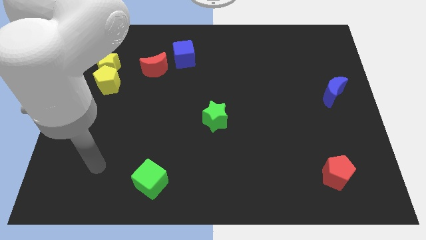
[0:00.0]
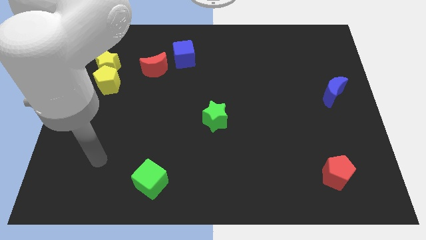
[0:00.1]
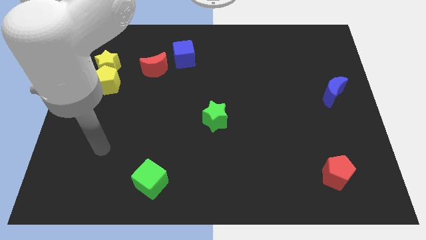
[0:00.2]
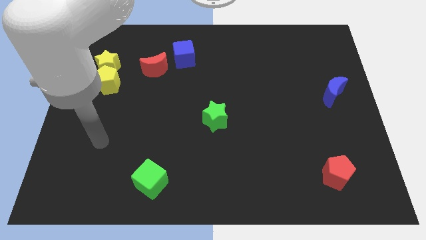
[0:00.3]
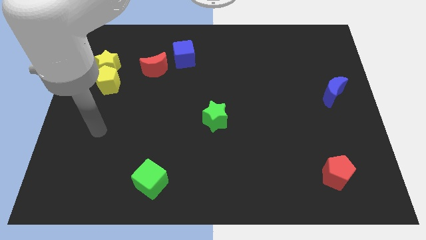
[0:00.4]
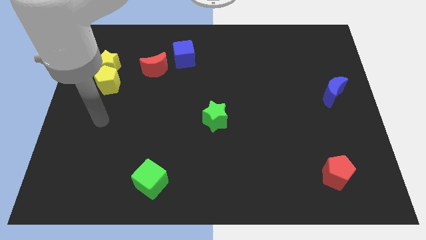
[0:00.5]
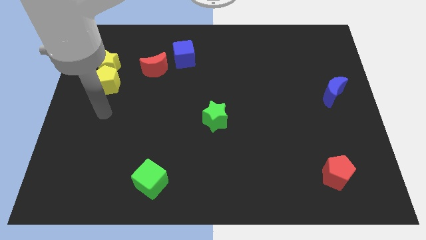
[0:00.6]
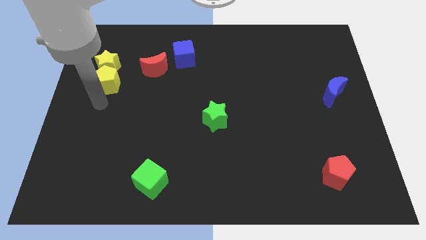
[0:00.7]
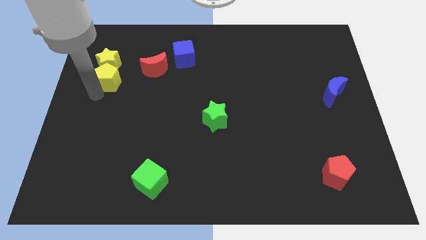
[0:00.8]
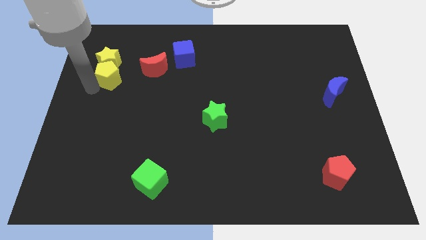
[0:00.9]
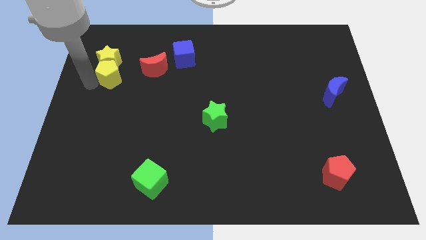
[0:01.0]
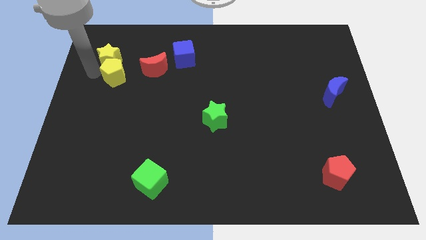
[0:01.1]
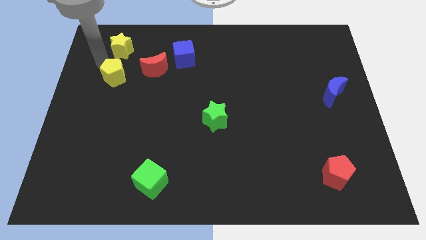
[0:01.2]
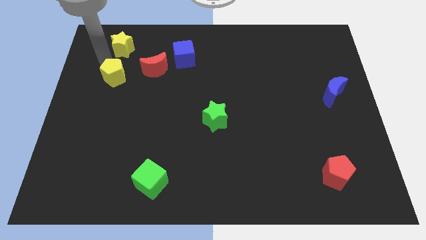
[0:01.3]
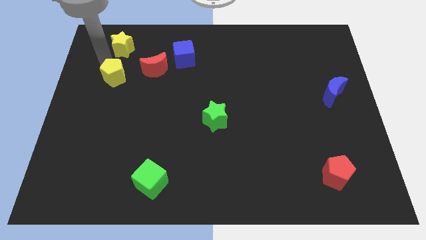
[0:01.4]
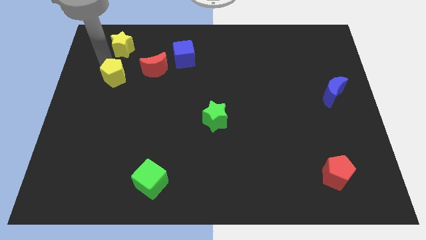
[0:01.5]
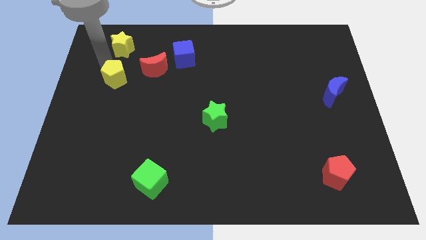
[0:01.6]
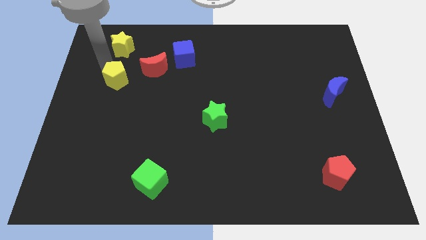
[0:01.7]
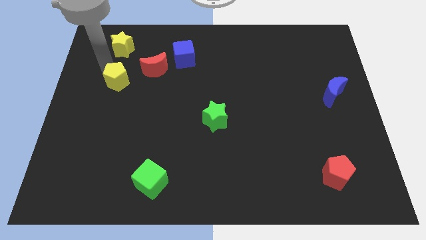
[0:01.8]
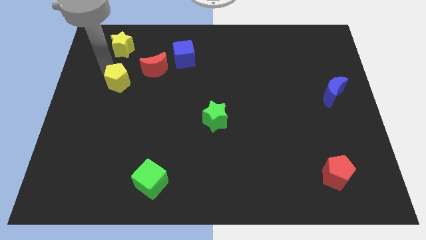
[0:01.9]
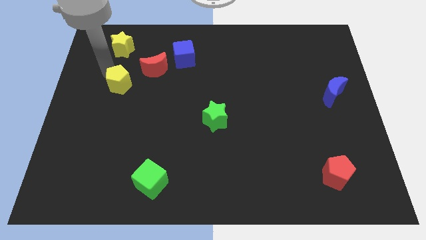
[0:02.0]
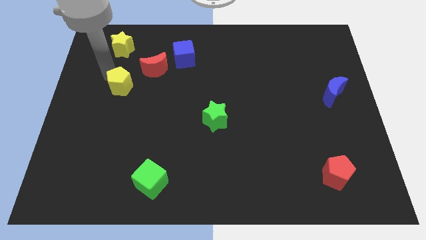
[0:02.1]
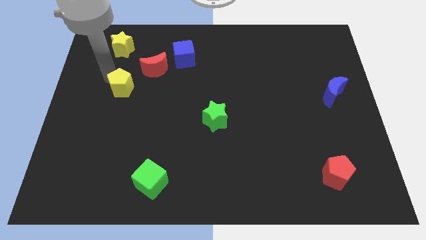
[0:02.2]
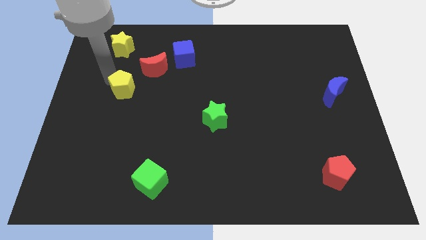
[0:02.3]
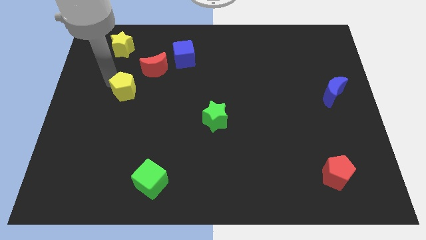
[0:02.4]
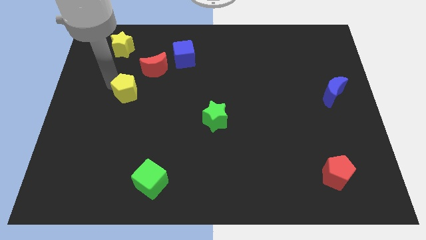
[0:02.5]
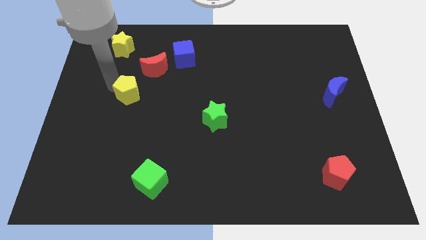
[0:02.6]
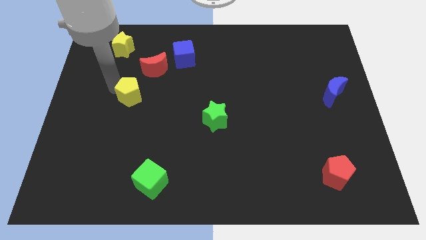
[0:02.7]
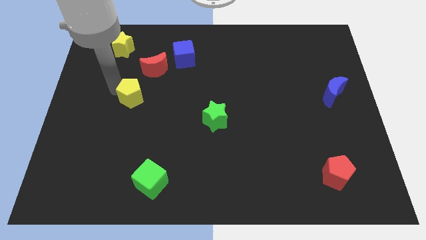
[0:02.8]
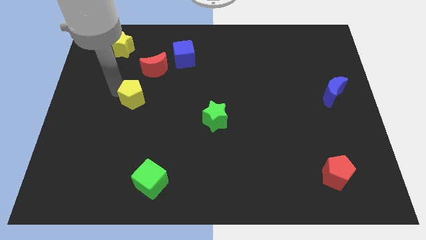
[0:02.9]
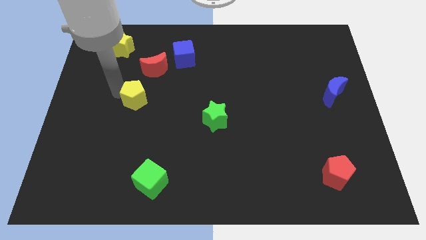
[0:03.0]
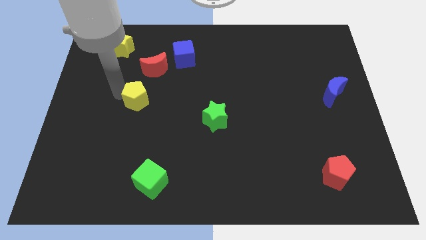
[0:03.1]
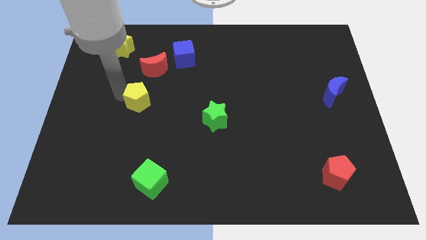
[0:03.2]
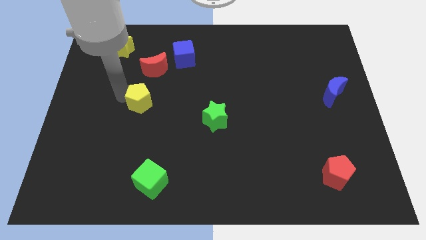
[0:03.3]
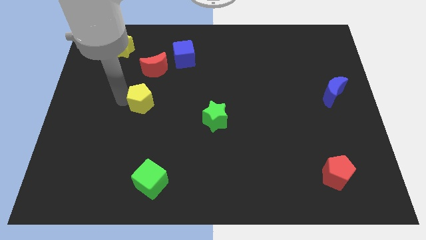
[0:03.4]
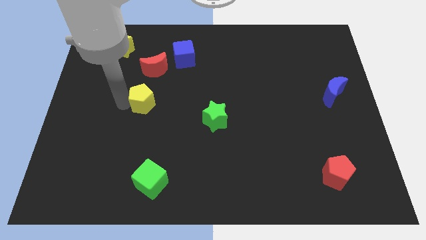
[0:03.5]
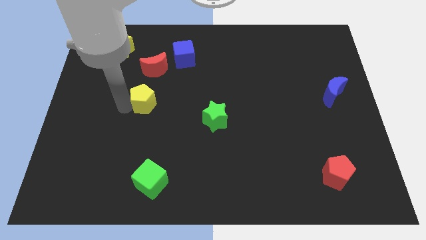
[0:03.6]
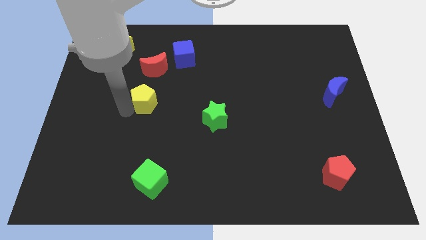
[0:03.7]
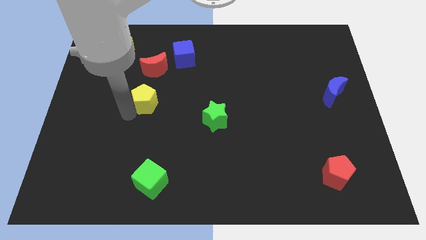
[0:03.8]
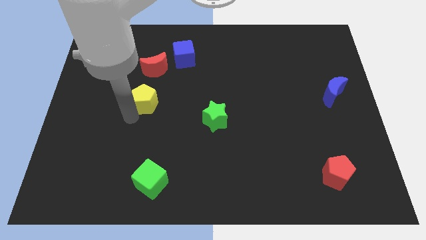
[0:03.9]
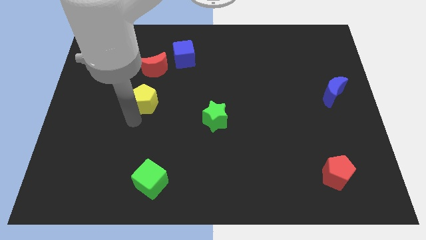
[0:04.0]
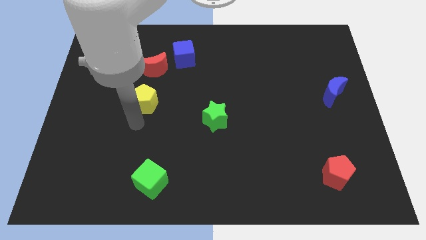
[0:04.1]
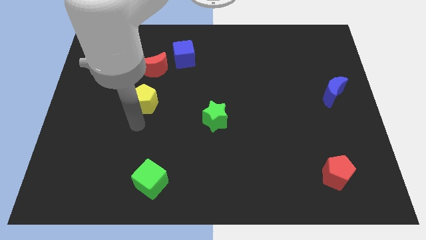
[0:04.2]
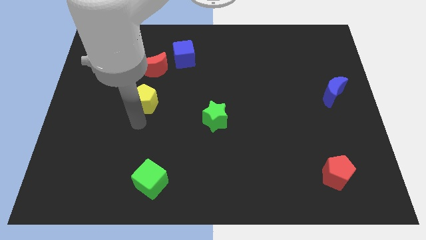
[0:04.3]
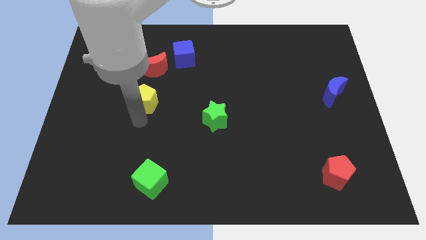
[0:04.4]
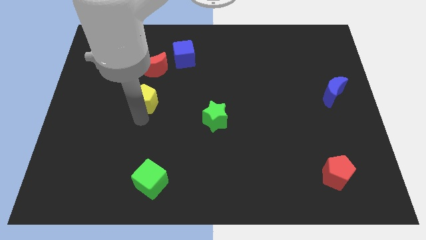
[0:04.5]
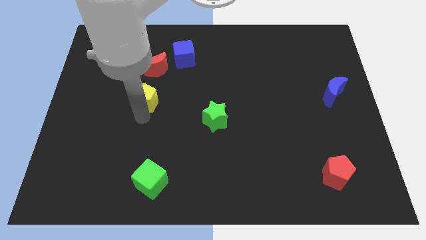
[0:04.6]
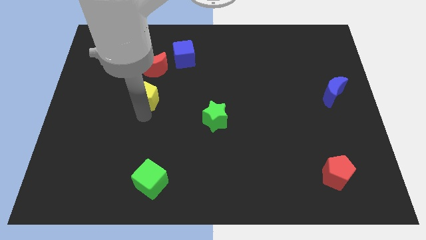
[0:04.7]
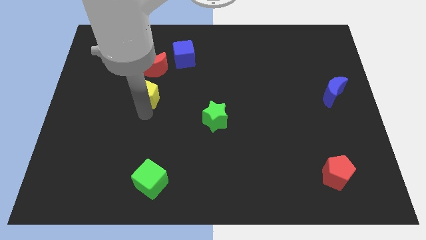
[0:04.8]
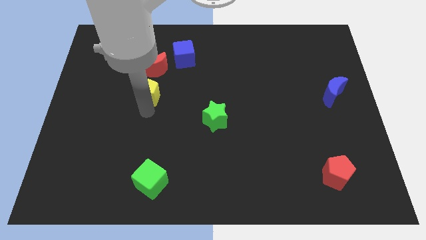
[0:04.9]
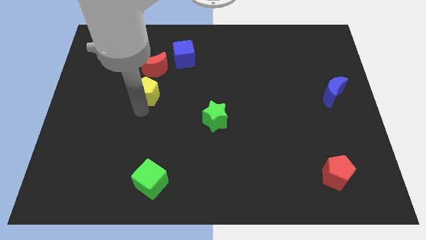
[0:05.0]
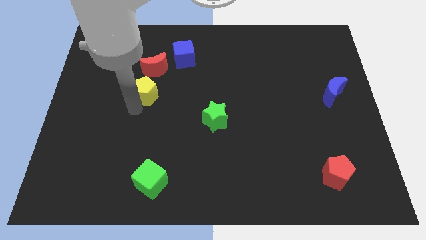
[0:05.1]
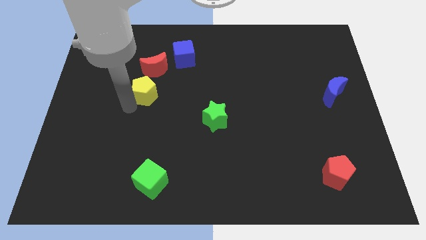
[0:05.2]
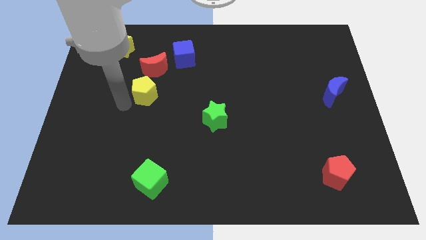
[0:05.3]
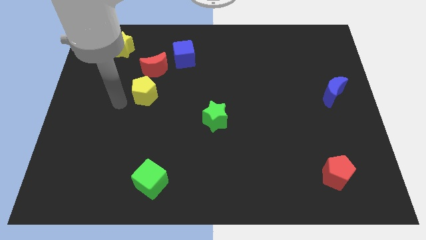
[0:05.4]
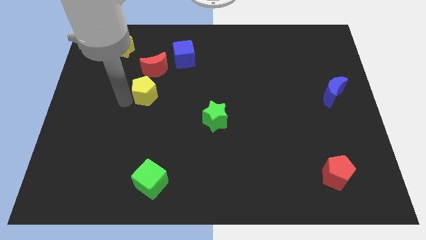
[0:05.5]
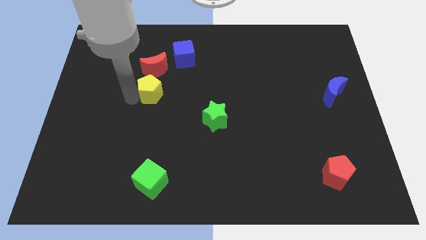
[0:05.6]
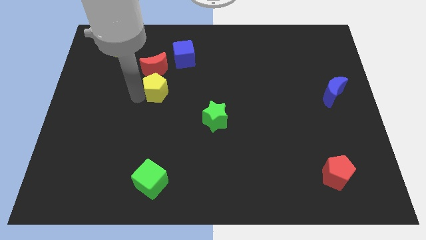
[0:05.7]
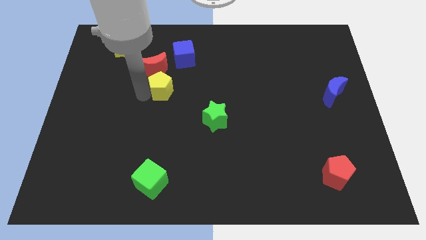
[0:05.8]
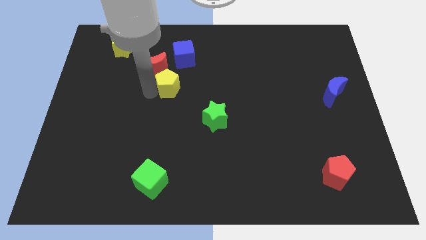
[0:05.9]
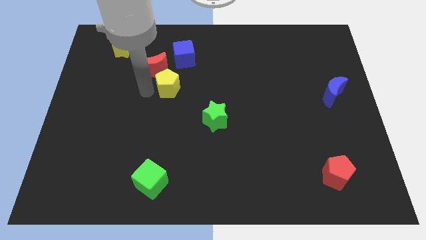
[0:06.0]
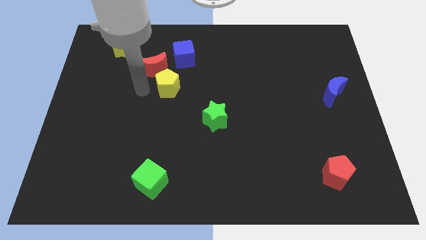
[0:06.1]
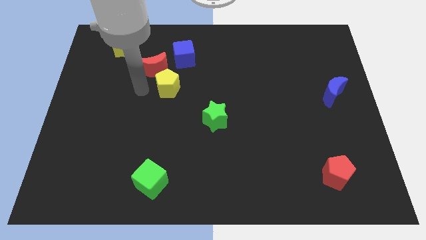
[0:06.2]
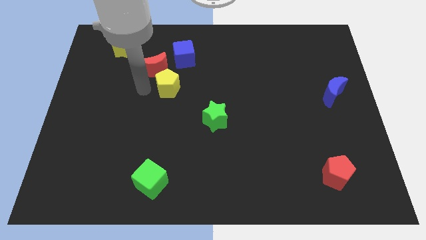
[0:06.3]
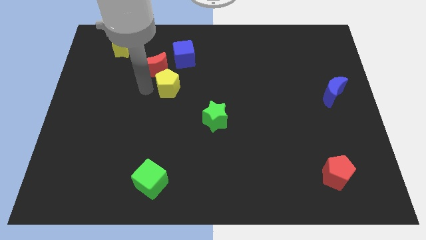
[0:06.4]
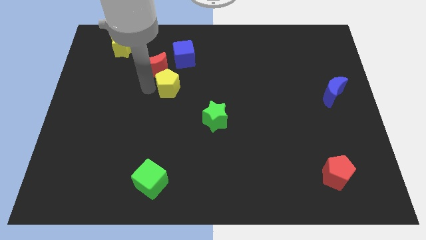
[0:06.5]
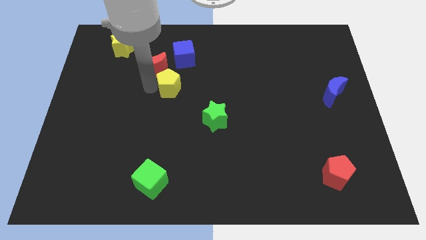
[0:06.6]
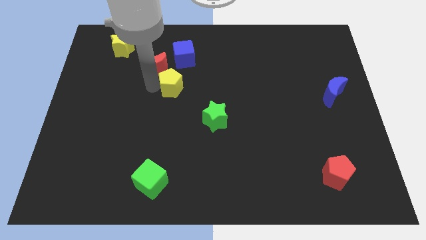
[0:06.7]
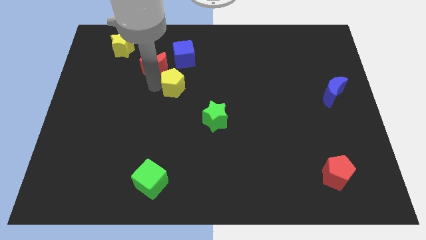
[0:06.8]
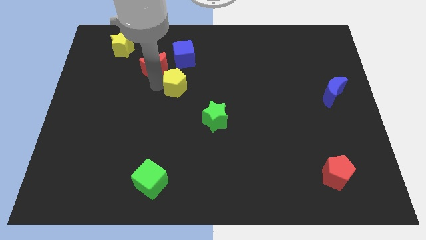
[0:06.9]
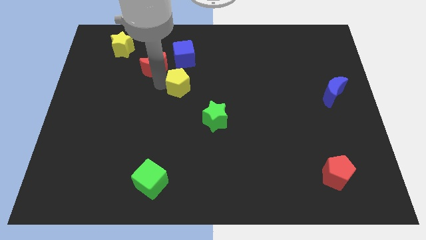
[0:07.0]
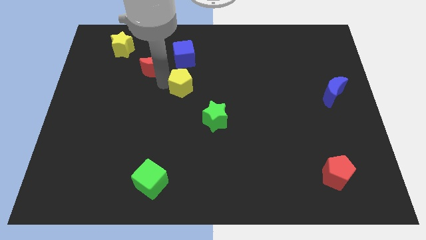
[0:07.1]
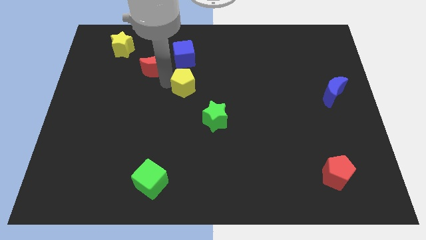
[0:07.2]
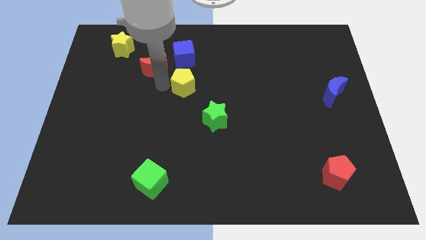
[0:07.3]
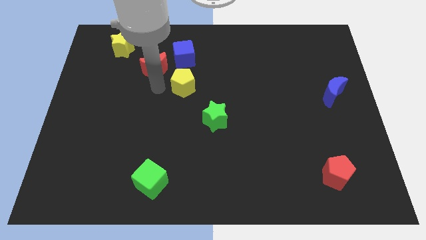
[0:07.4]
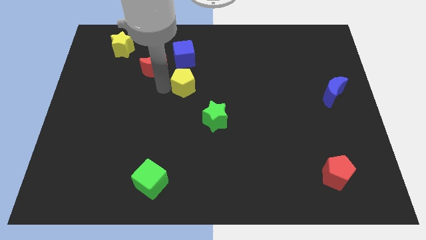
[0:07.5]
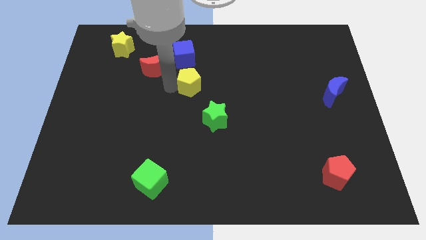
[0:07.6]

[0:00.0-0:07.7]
slide the yellow pentagon right
